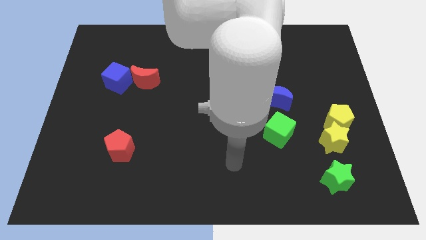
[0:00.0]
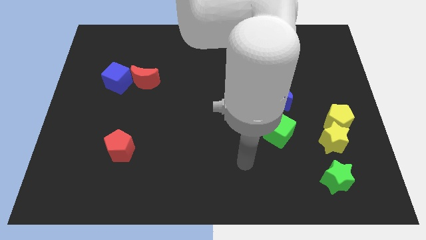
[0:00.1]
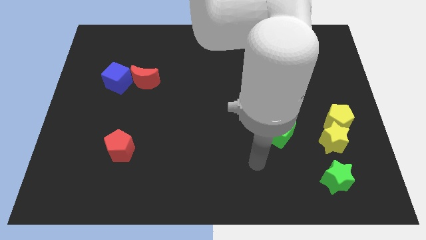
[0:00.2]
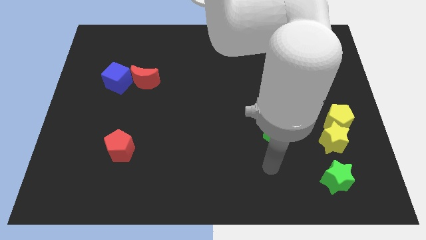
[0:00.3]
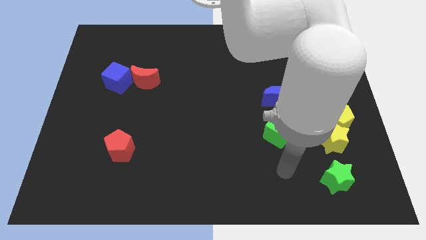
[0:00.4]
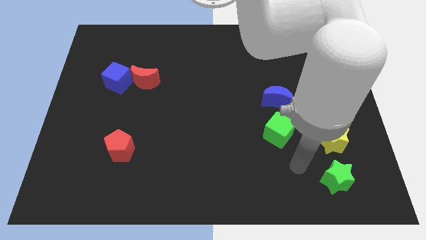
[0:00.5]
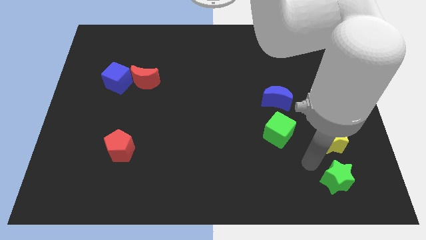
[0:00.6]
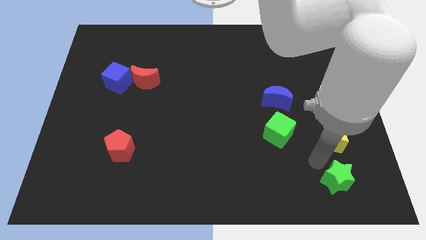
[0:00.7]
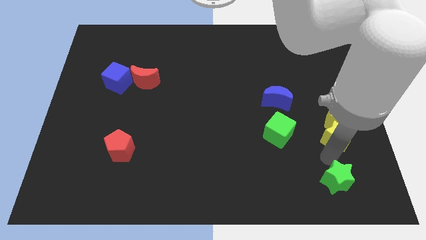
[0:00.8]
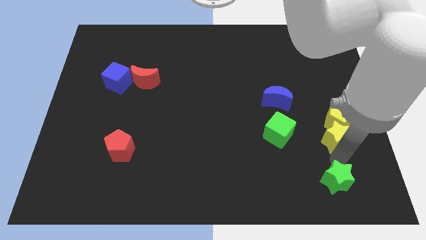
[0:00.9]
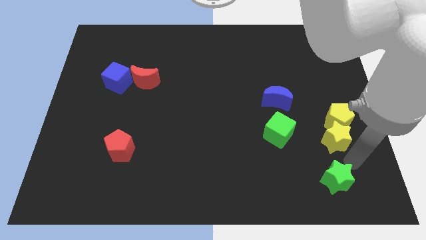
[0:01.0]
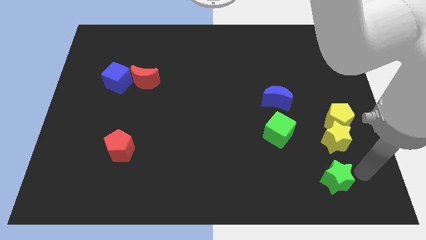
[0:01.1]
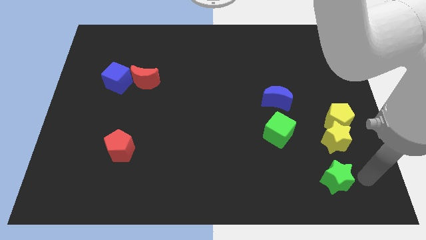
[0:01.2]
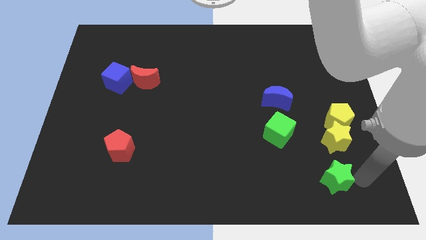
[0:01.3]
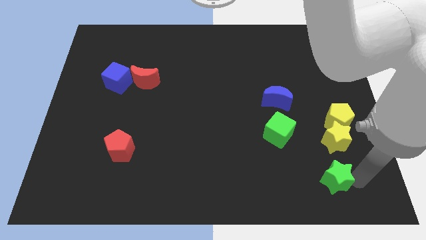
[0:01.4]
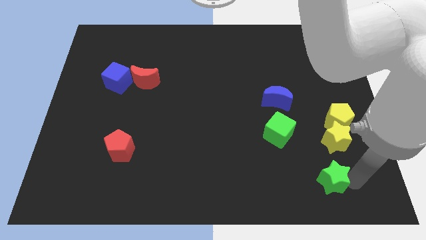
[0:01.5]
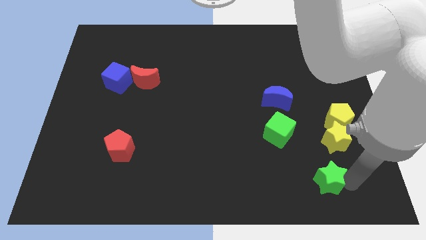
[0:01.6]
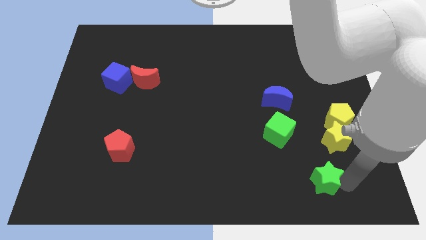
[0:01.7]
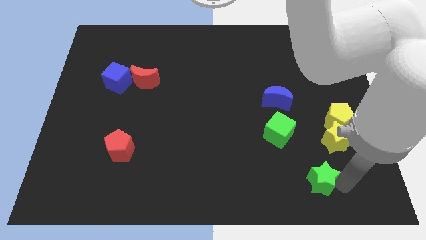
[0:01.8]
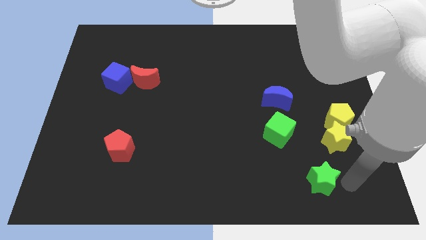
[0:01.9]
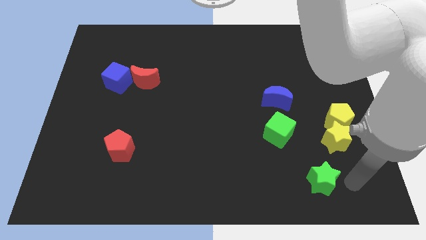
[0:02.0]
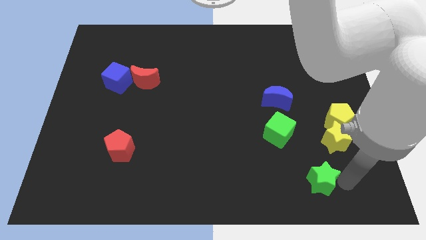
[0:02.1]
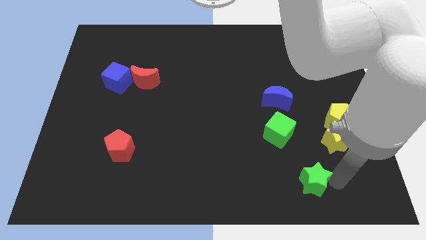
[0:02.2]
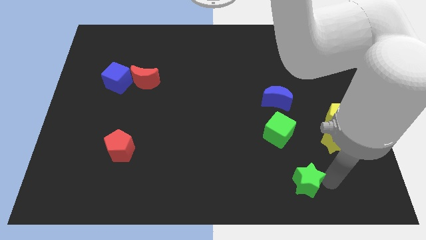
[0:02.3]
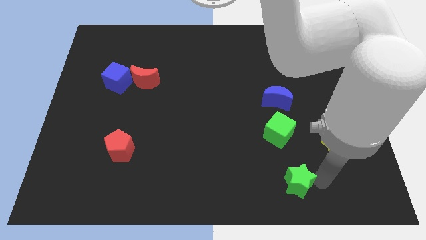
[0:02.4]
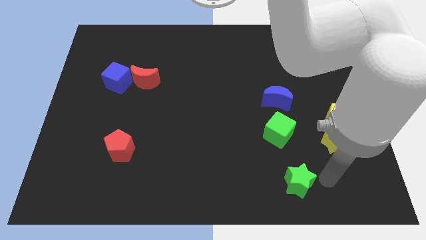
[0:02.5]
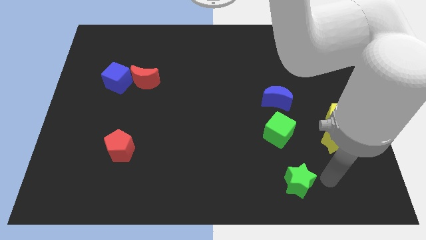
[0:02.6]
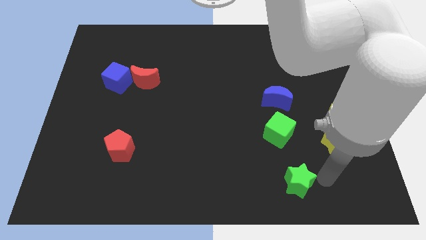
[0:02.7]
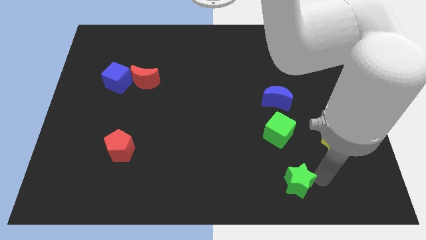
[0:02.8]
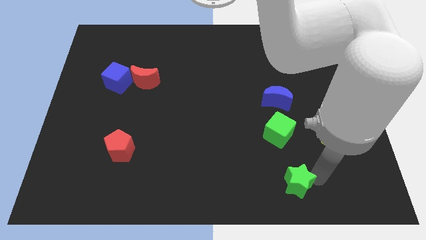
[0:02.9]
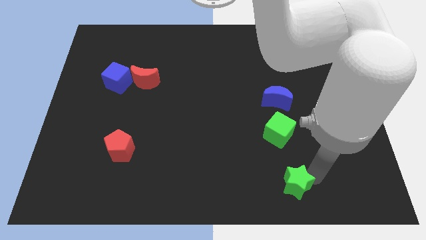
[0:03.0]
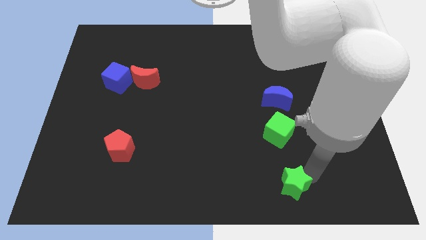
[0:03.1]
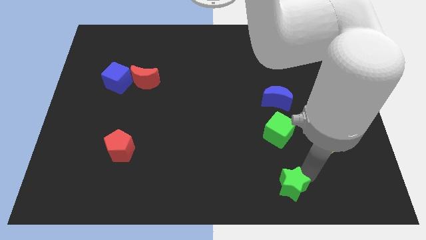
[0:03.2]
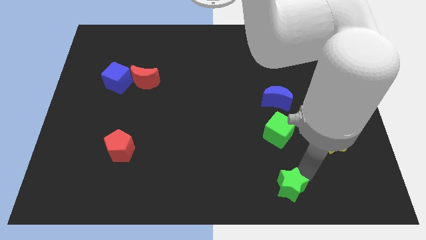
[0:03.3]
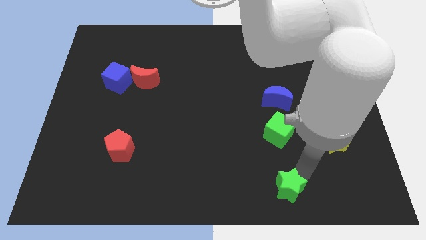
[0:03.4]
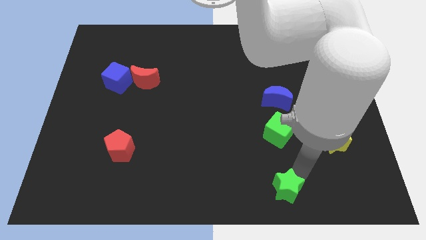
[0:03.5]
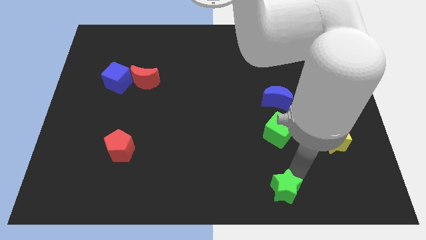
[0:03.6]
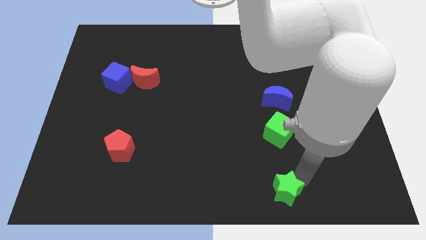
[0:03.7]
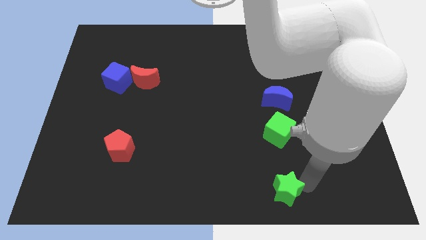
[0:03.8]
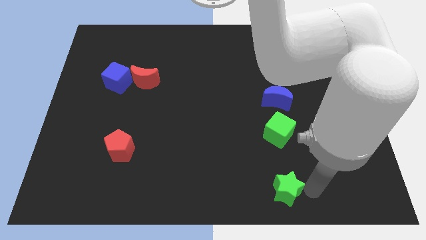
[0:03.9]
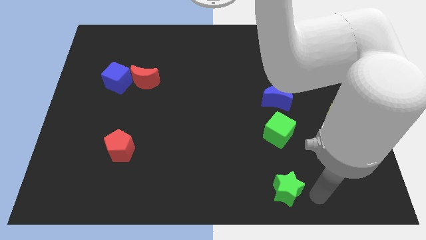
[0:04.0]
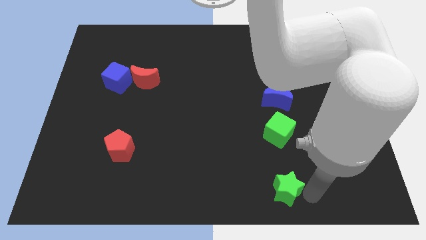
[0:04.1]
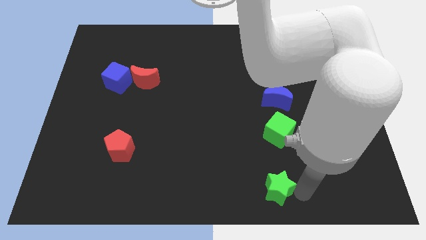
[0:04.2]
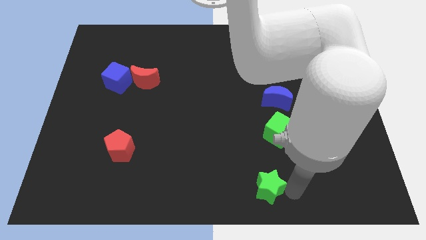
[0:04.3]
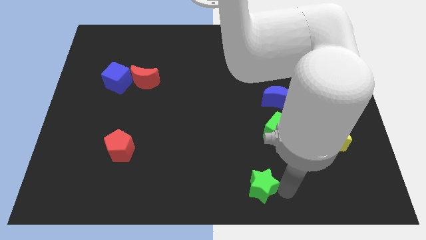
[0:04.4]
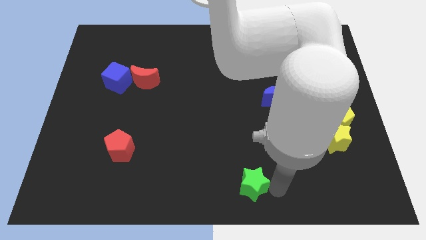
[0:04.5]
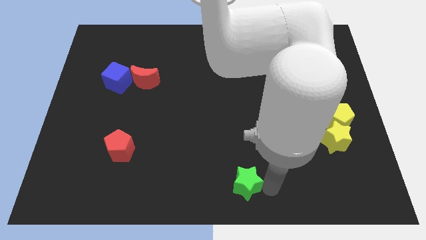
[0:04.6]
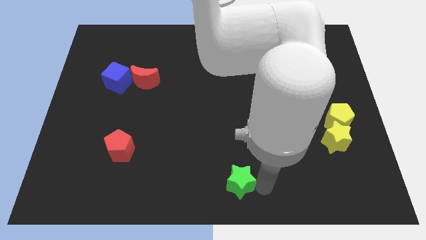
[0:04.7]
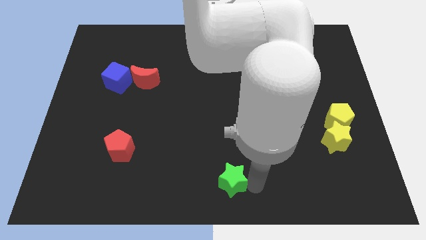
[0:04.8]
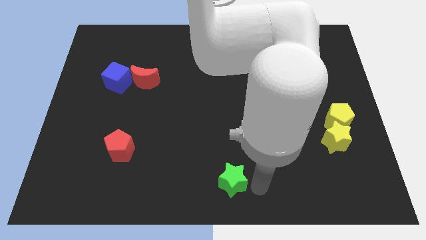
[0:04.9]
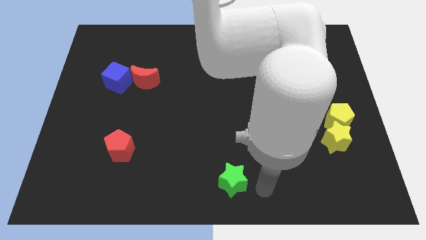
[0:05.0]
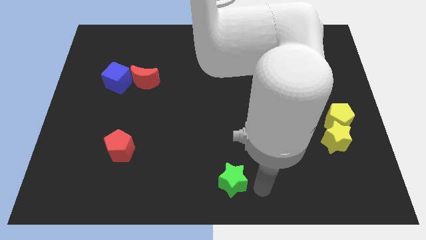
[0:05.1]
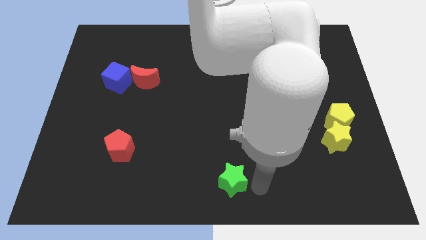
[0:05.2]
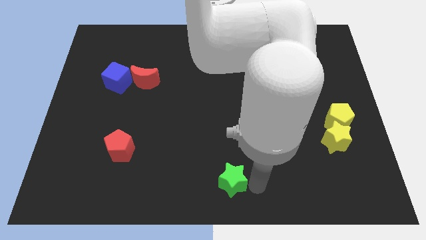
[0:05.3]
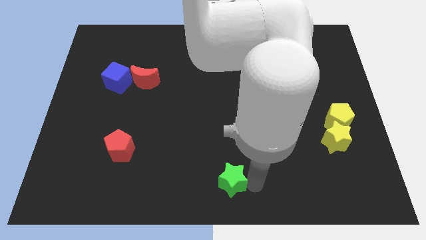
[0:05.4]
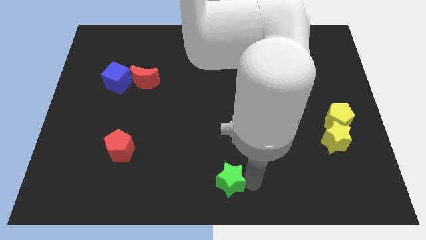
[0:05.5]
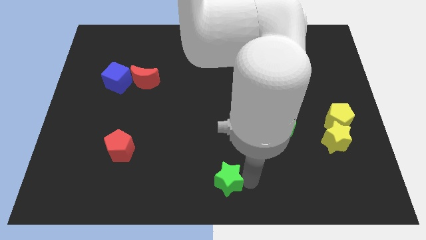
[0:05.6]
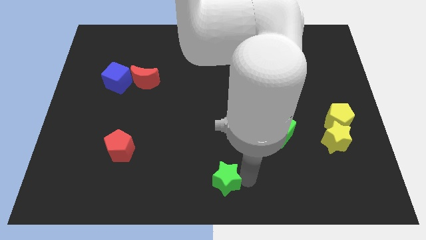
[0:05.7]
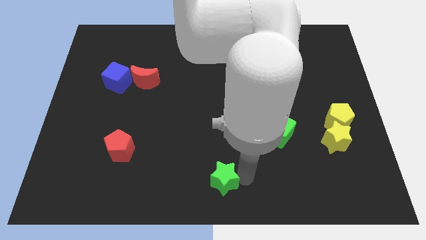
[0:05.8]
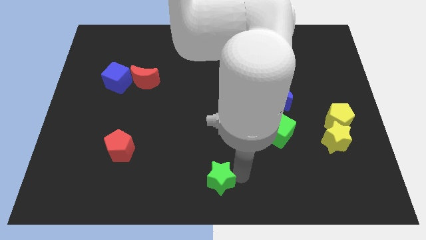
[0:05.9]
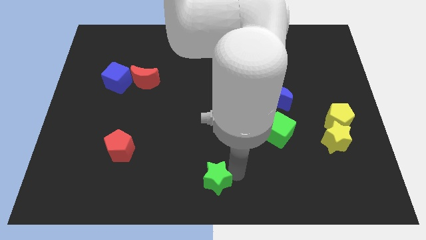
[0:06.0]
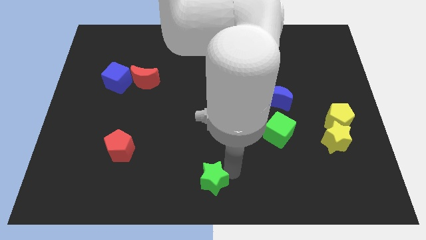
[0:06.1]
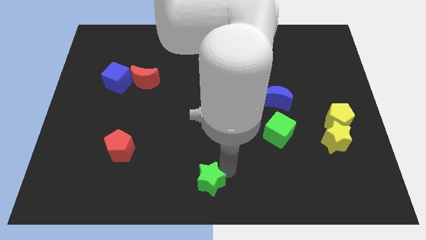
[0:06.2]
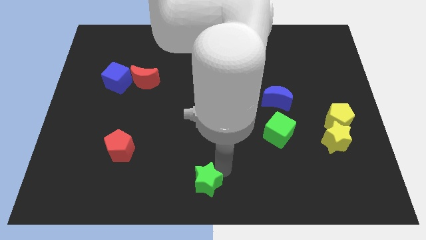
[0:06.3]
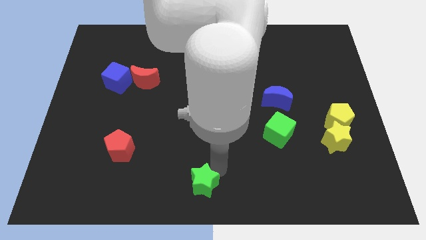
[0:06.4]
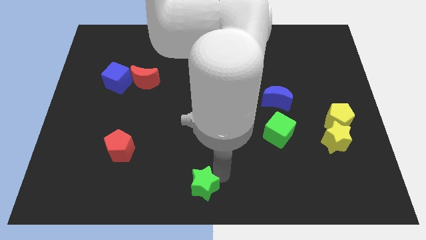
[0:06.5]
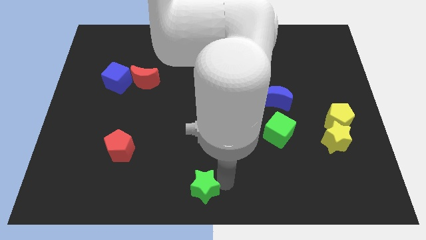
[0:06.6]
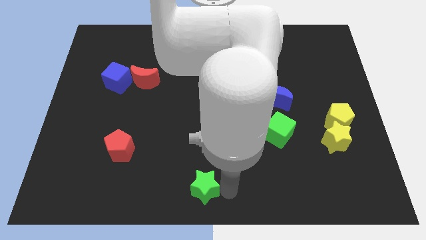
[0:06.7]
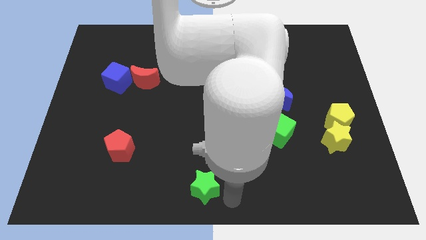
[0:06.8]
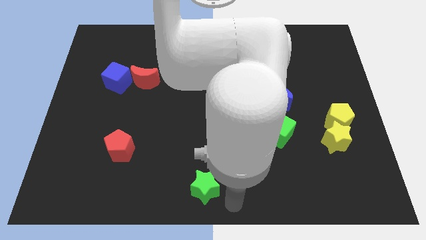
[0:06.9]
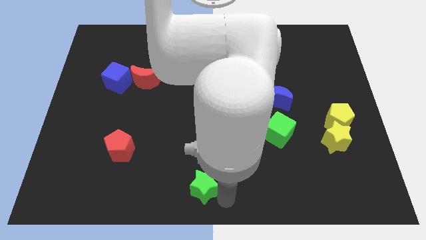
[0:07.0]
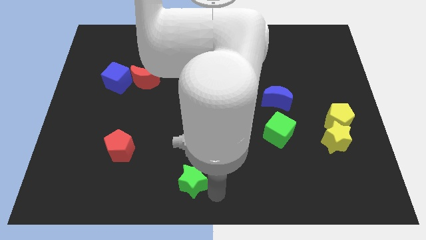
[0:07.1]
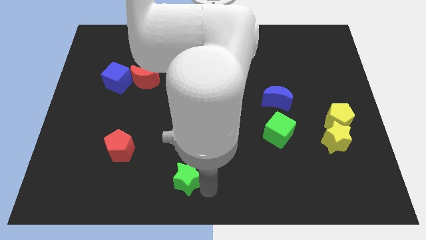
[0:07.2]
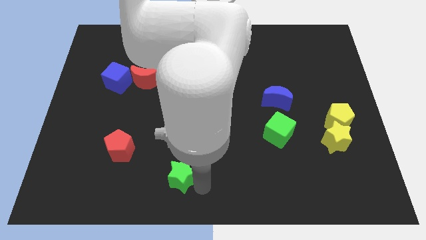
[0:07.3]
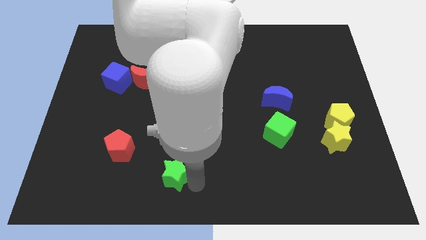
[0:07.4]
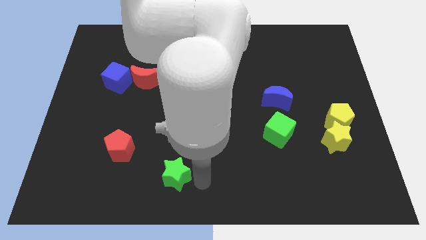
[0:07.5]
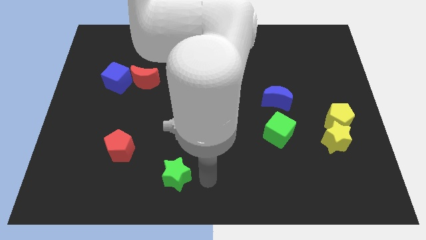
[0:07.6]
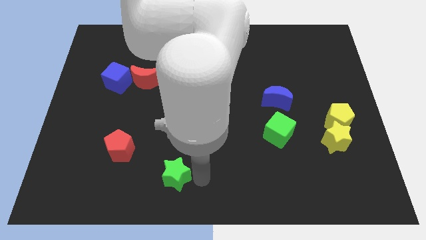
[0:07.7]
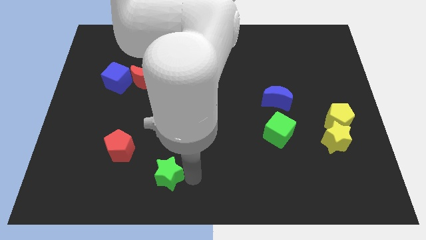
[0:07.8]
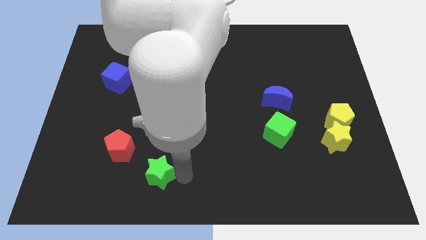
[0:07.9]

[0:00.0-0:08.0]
slide the green star to the bottom right side of the red pentagon
